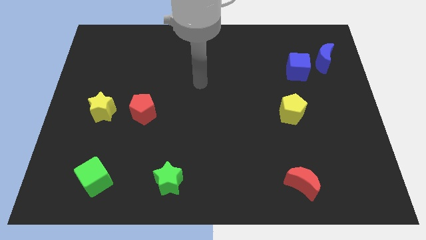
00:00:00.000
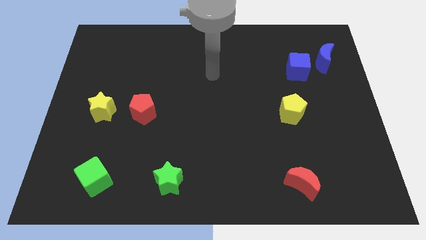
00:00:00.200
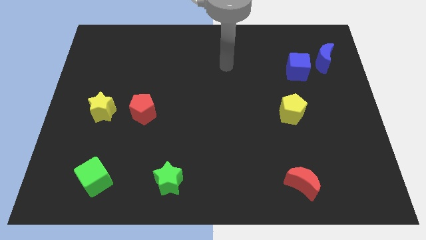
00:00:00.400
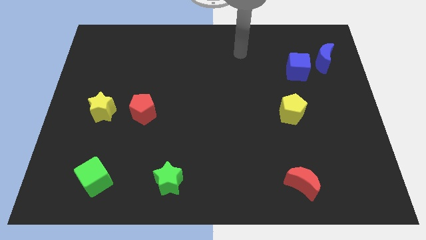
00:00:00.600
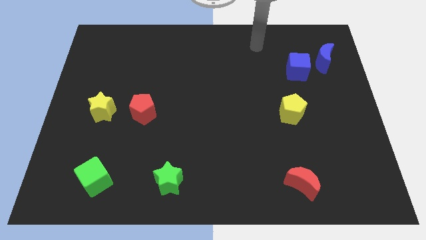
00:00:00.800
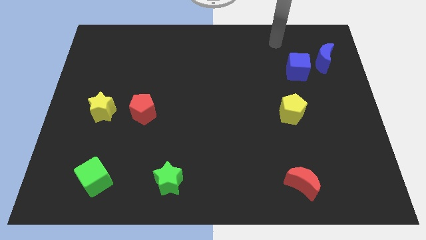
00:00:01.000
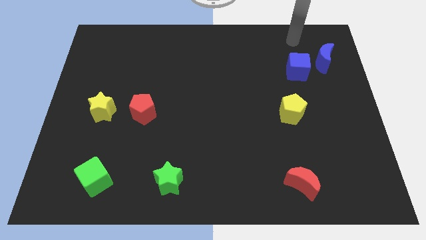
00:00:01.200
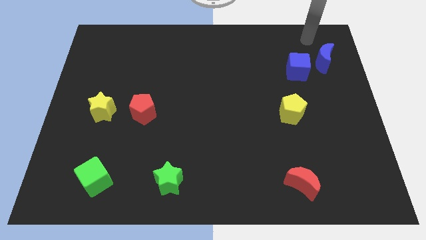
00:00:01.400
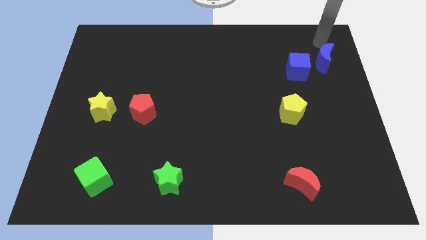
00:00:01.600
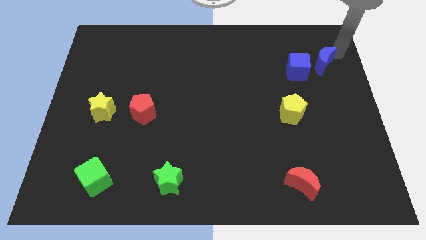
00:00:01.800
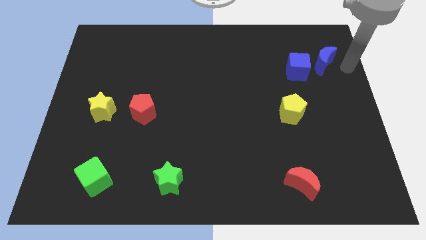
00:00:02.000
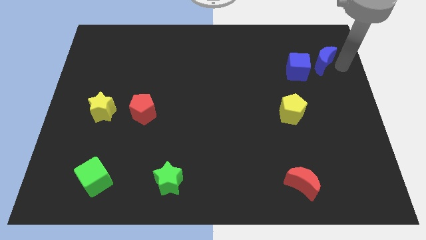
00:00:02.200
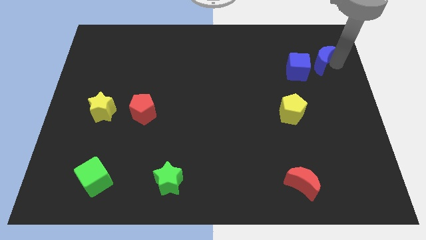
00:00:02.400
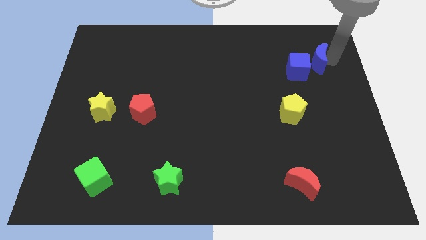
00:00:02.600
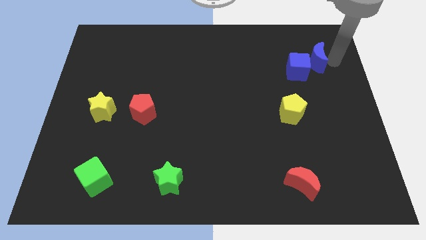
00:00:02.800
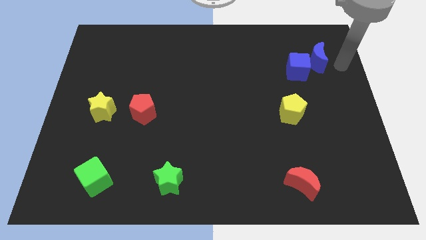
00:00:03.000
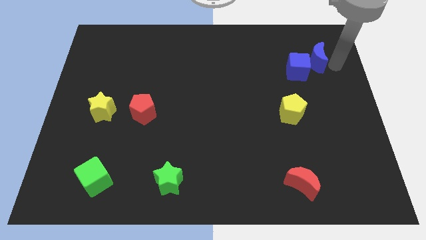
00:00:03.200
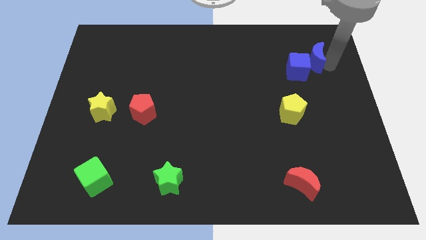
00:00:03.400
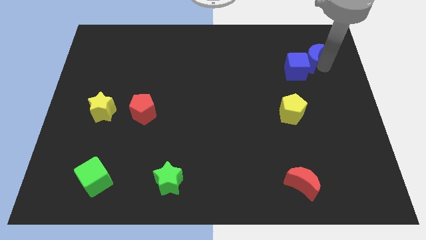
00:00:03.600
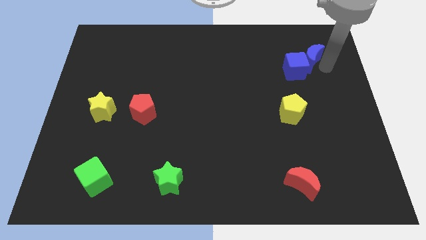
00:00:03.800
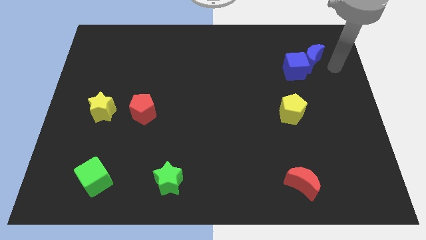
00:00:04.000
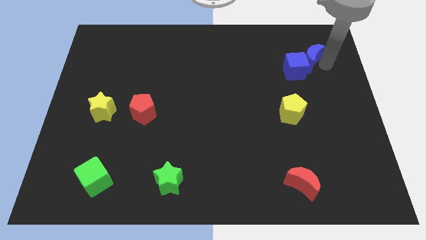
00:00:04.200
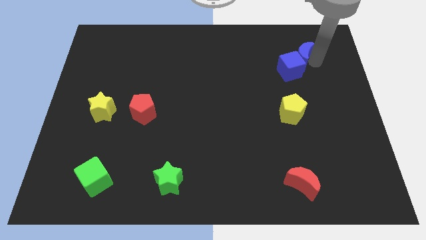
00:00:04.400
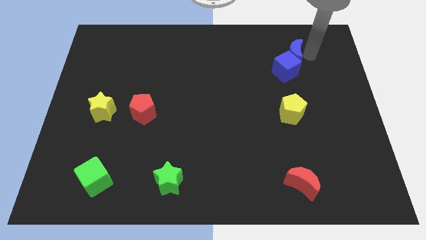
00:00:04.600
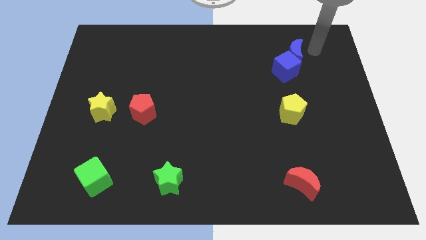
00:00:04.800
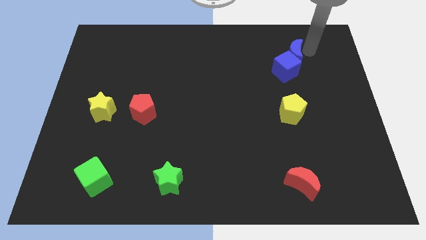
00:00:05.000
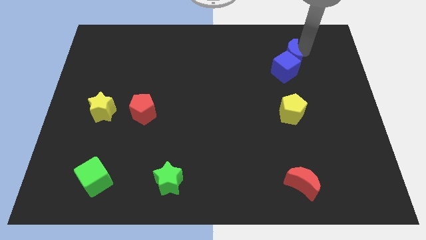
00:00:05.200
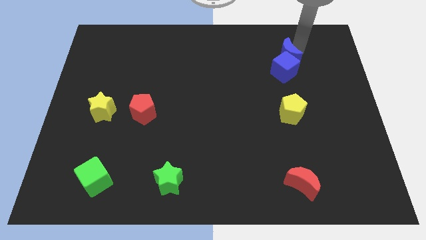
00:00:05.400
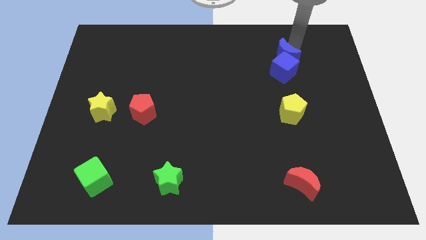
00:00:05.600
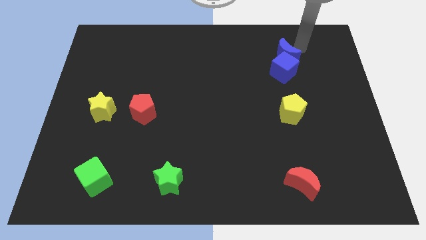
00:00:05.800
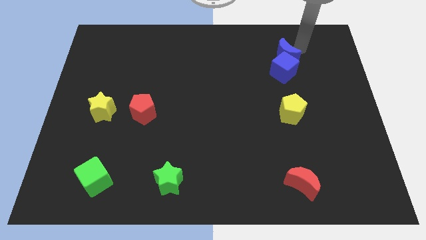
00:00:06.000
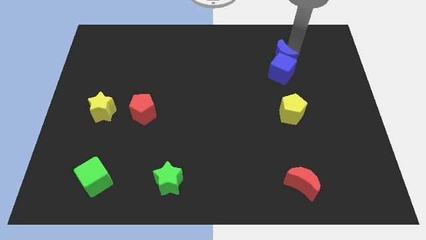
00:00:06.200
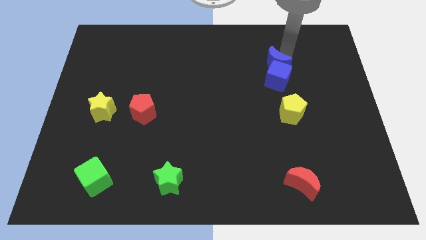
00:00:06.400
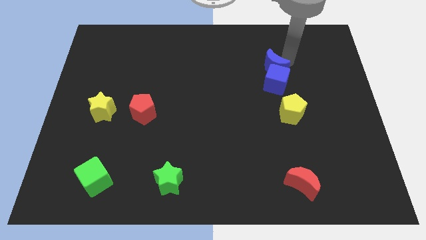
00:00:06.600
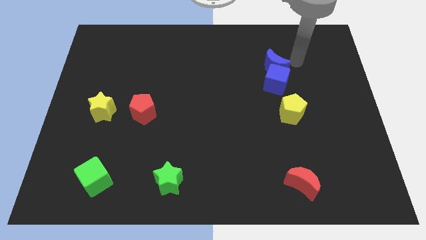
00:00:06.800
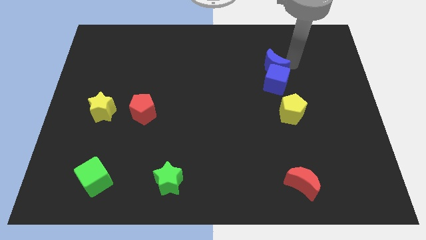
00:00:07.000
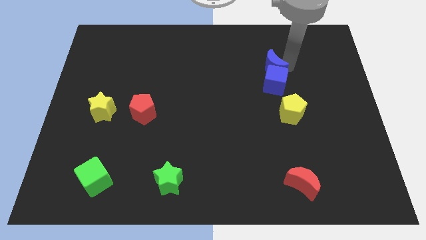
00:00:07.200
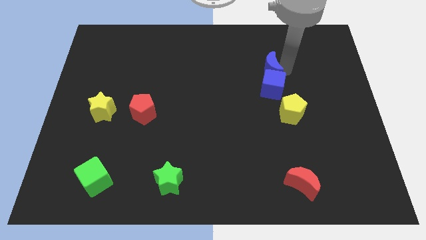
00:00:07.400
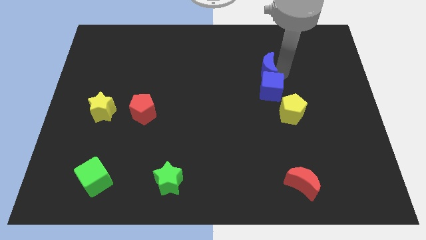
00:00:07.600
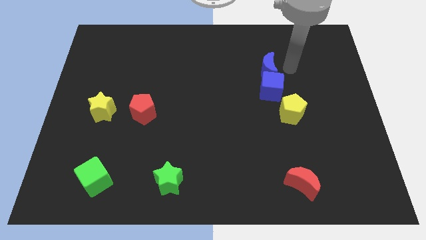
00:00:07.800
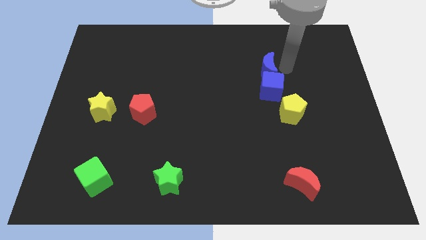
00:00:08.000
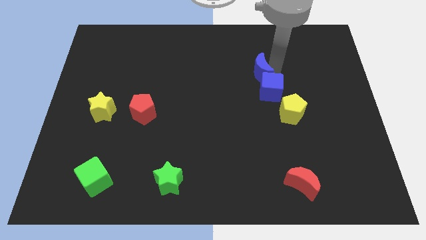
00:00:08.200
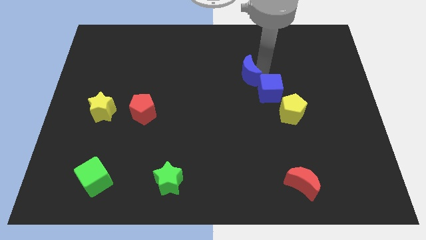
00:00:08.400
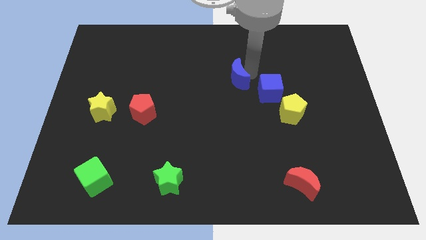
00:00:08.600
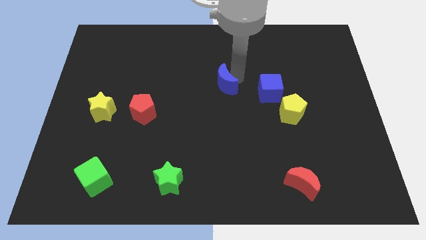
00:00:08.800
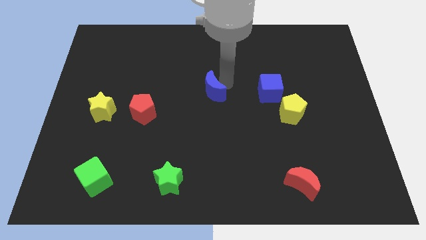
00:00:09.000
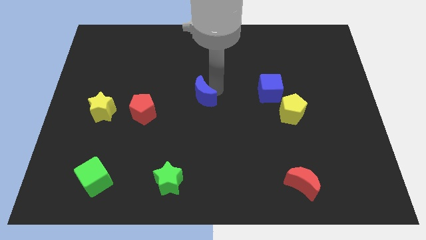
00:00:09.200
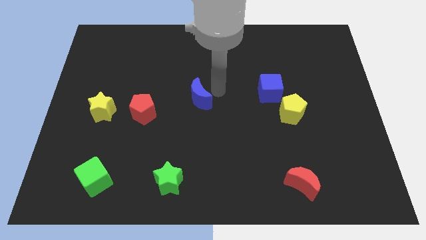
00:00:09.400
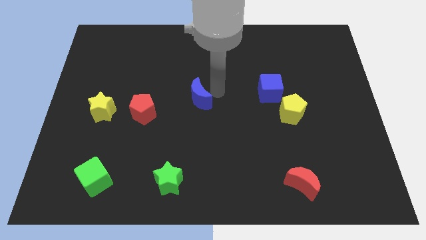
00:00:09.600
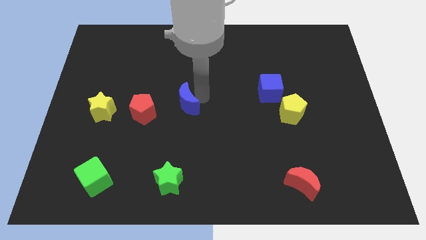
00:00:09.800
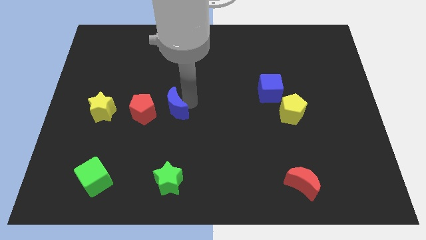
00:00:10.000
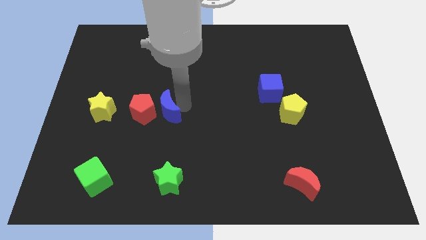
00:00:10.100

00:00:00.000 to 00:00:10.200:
push the blue moon to the right of the yellow star

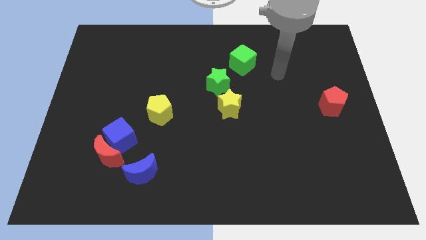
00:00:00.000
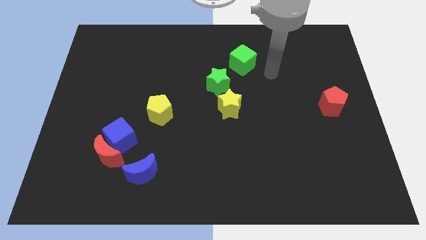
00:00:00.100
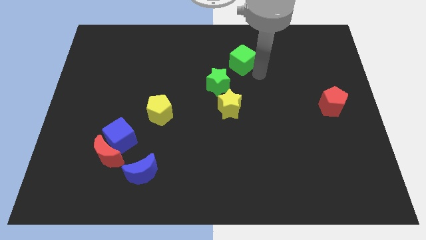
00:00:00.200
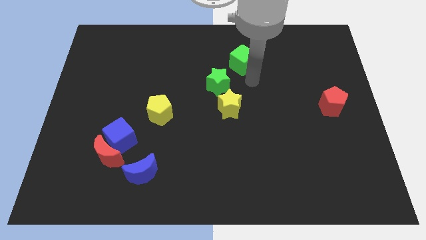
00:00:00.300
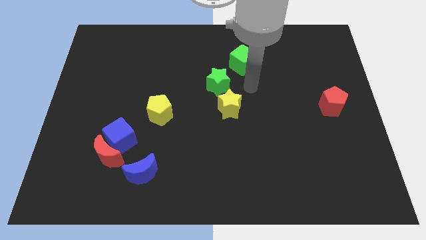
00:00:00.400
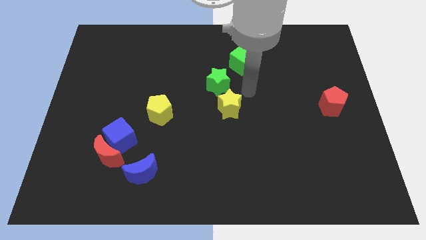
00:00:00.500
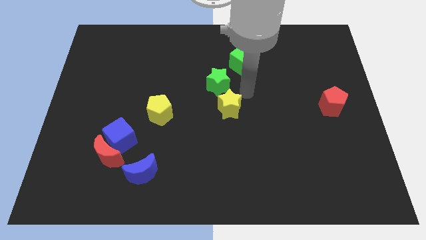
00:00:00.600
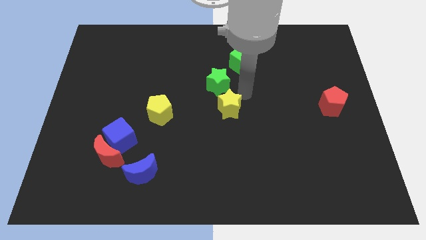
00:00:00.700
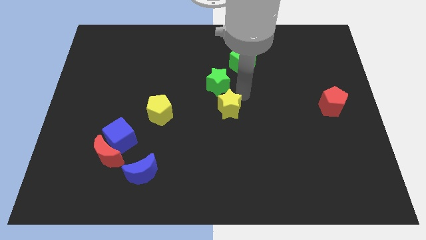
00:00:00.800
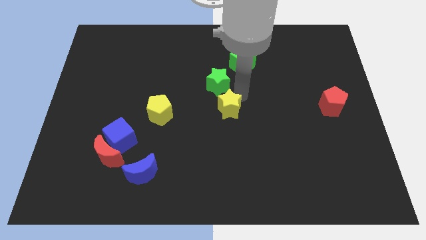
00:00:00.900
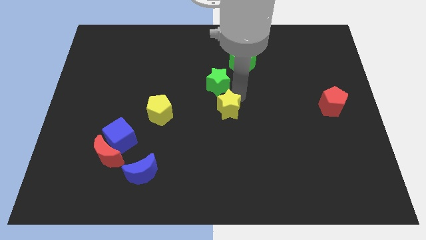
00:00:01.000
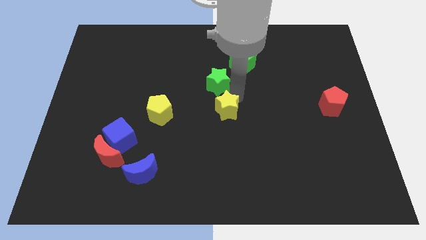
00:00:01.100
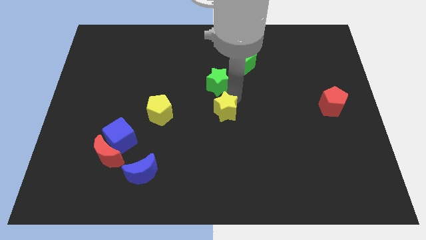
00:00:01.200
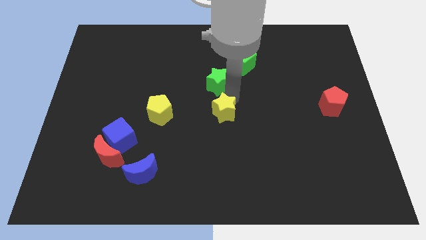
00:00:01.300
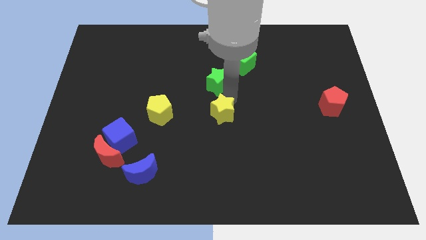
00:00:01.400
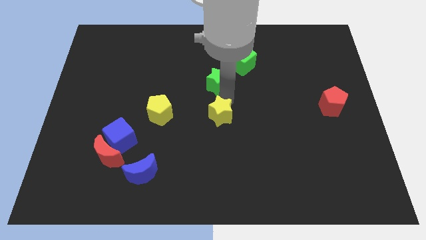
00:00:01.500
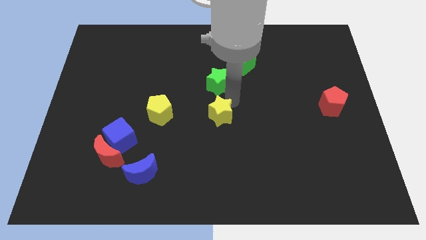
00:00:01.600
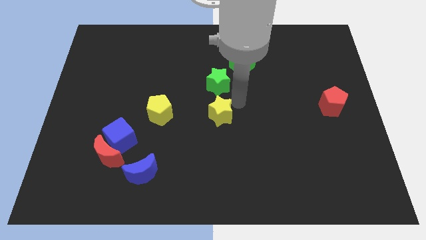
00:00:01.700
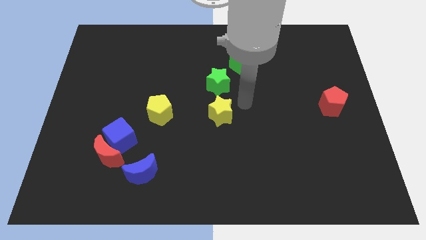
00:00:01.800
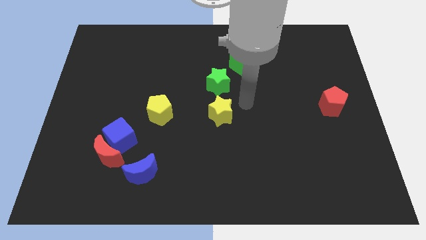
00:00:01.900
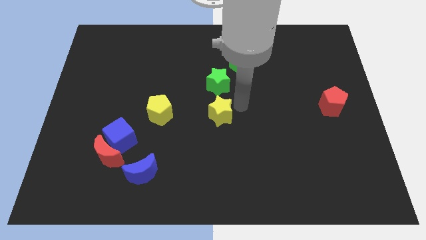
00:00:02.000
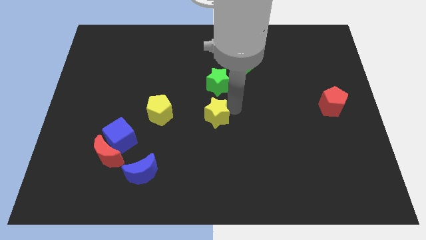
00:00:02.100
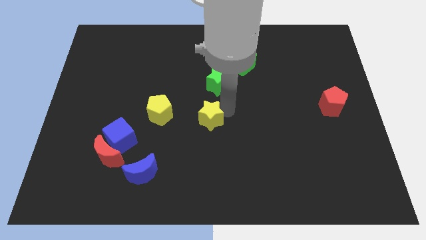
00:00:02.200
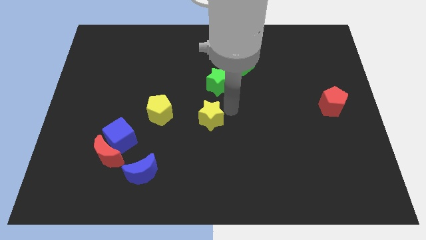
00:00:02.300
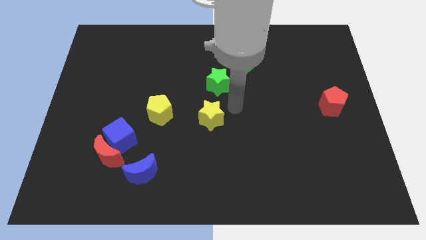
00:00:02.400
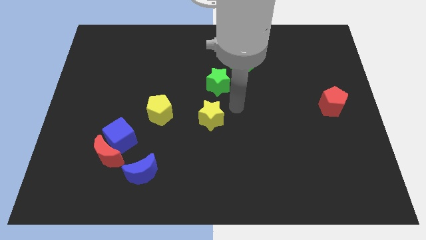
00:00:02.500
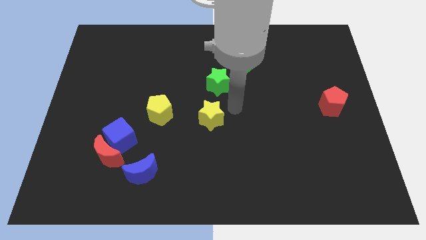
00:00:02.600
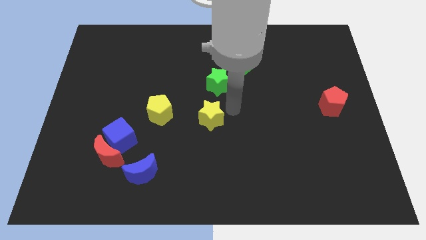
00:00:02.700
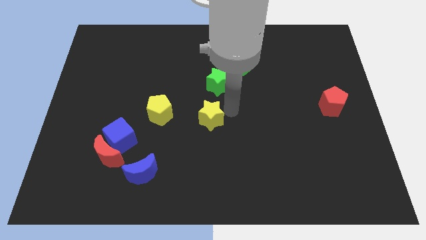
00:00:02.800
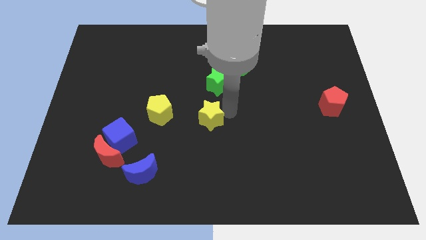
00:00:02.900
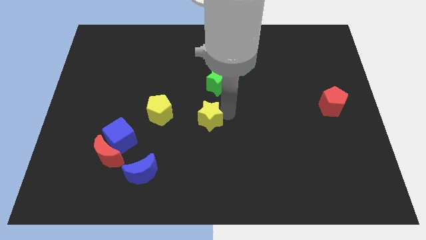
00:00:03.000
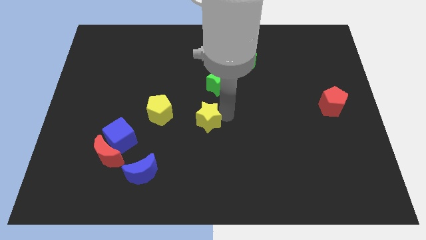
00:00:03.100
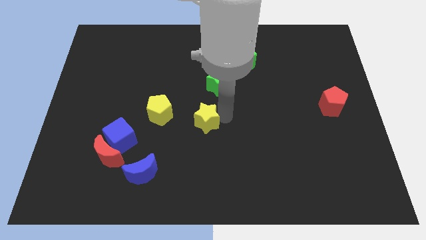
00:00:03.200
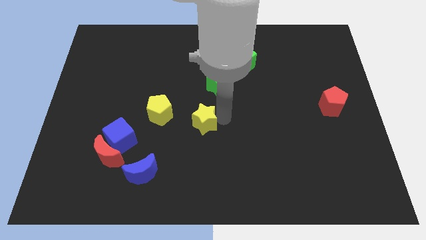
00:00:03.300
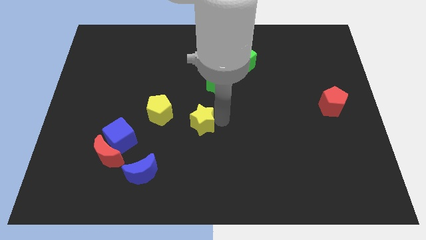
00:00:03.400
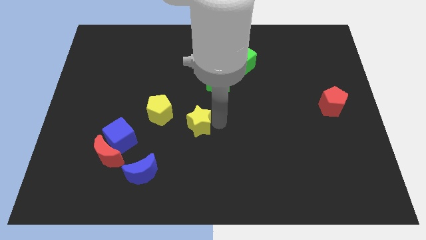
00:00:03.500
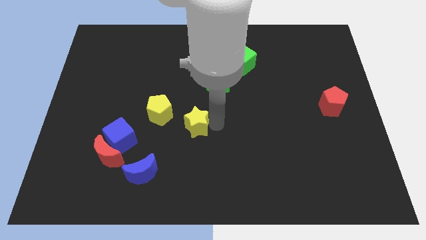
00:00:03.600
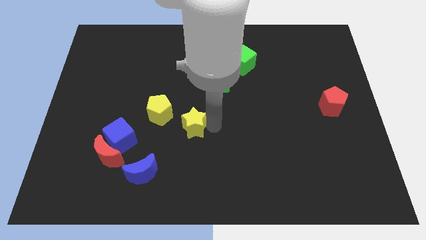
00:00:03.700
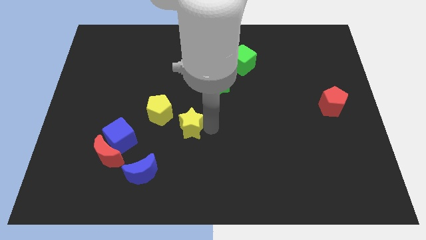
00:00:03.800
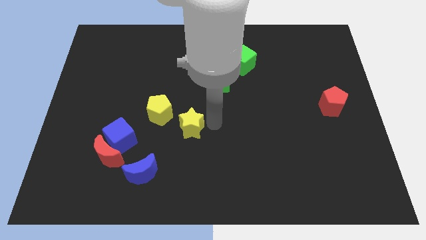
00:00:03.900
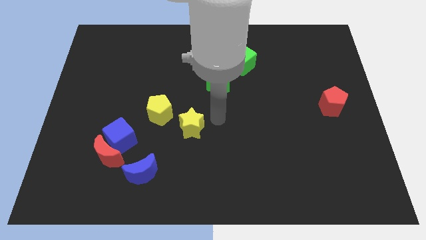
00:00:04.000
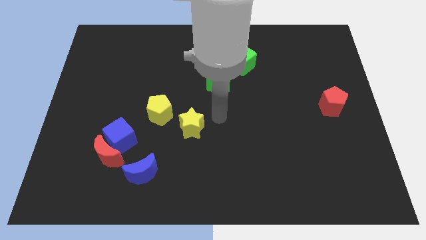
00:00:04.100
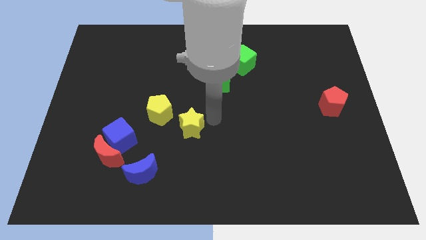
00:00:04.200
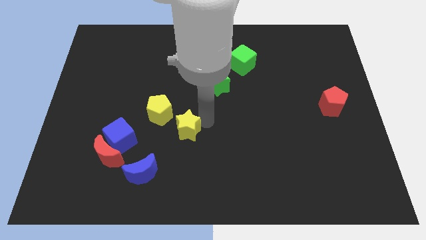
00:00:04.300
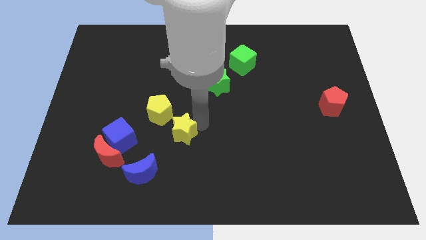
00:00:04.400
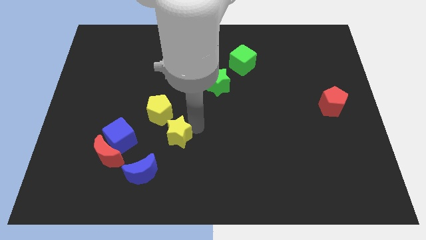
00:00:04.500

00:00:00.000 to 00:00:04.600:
push the yellow star to the bottom side of the yellow pentagon
